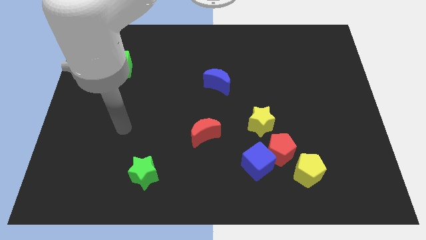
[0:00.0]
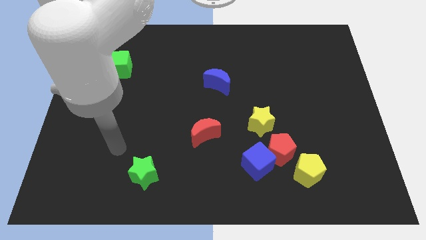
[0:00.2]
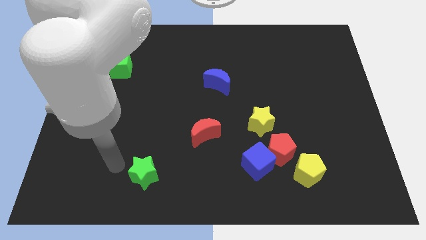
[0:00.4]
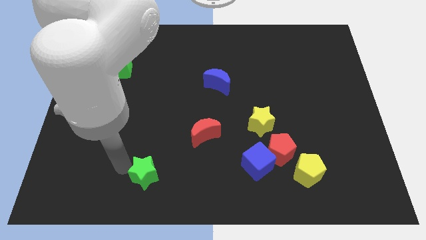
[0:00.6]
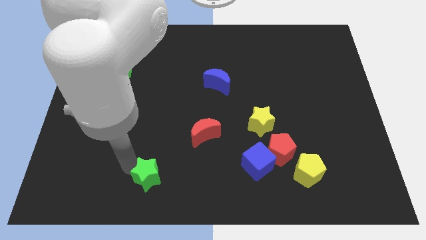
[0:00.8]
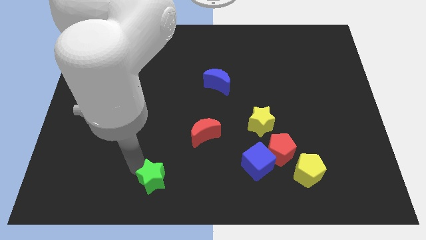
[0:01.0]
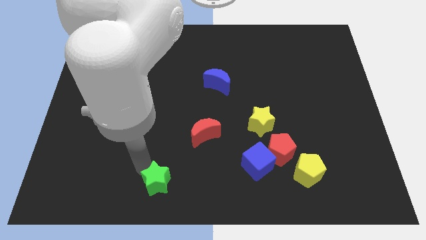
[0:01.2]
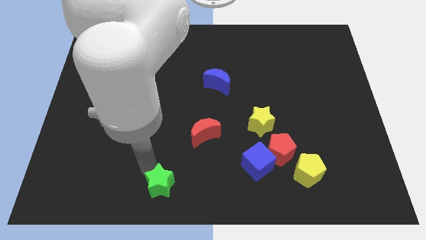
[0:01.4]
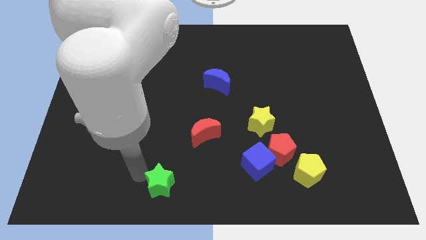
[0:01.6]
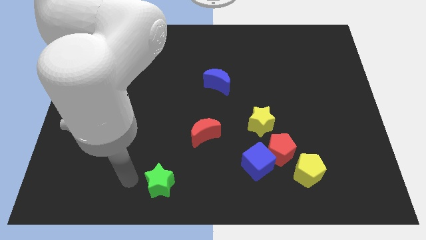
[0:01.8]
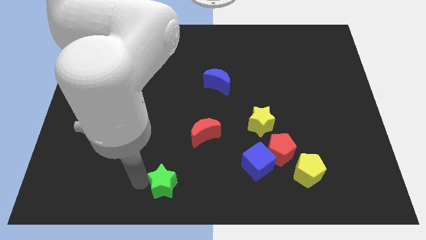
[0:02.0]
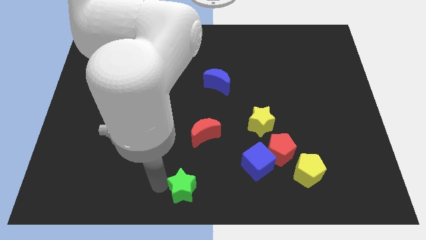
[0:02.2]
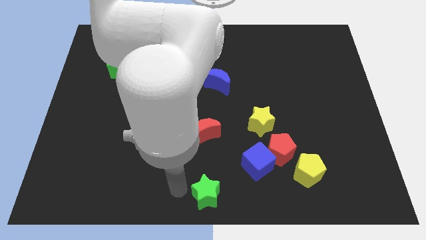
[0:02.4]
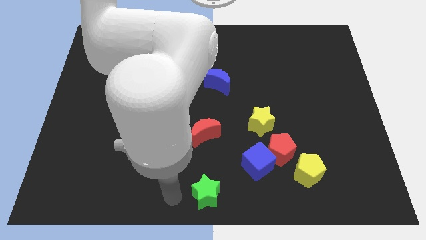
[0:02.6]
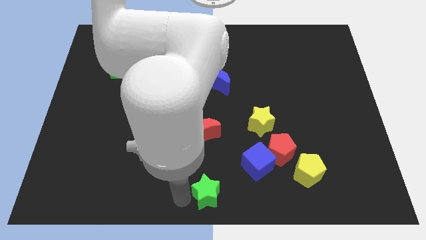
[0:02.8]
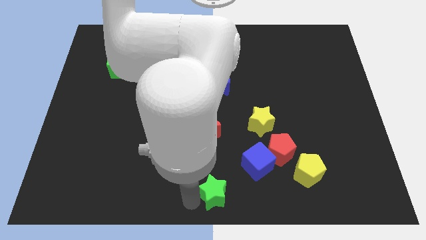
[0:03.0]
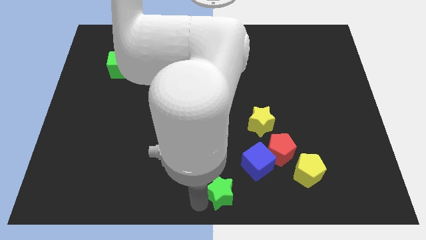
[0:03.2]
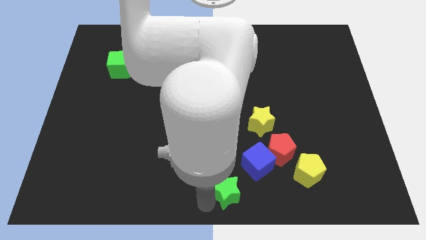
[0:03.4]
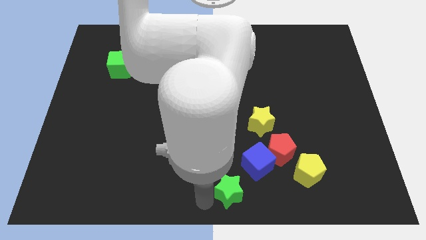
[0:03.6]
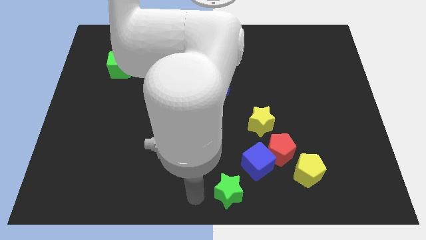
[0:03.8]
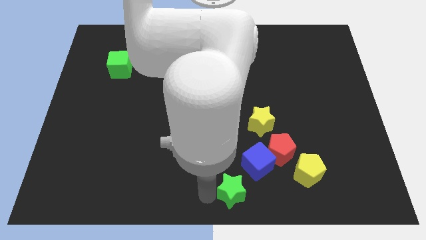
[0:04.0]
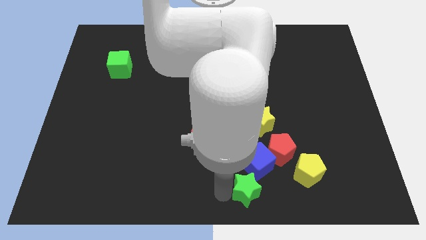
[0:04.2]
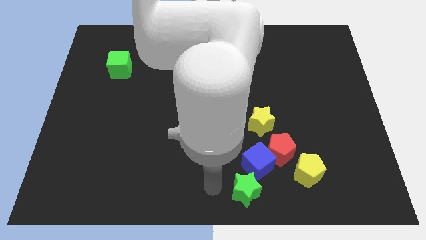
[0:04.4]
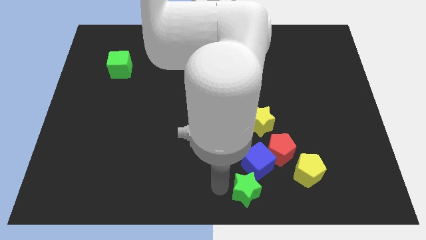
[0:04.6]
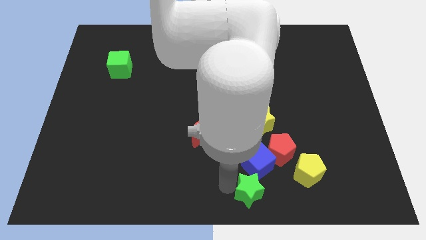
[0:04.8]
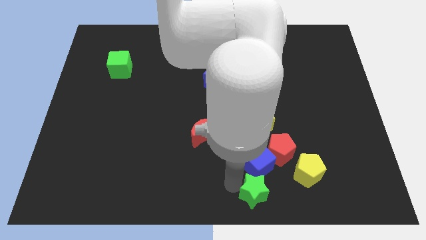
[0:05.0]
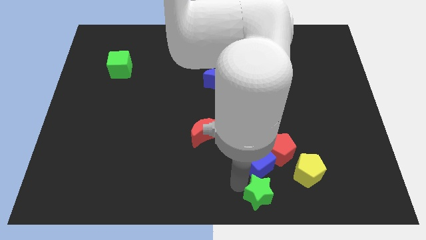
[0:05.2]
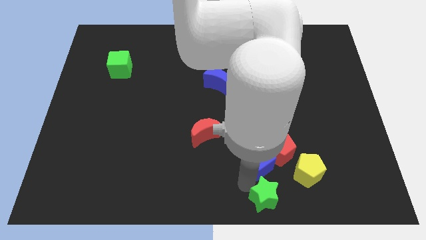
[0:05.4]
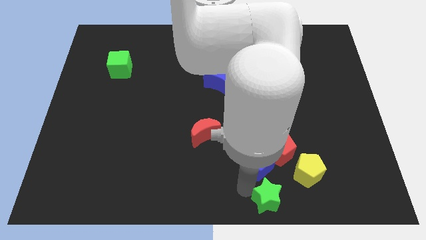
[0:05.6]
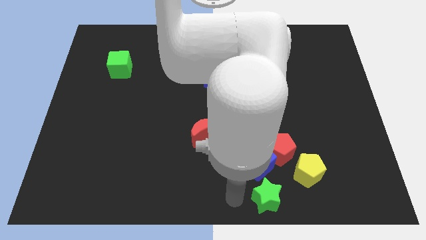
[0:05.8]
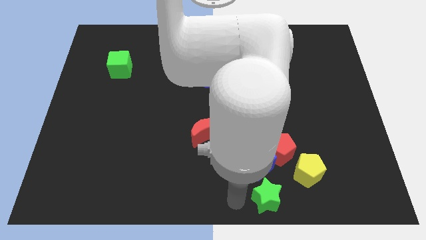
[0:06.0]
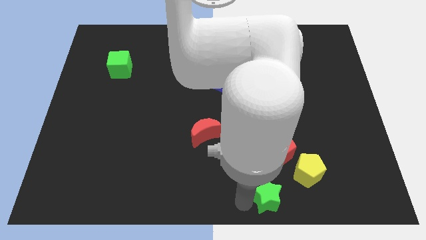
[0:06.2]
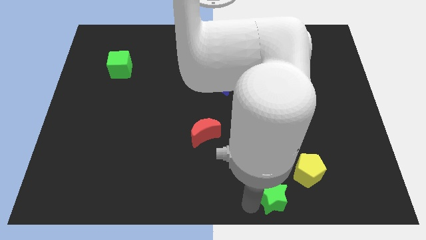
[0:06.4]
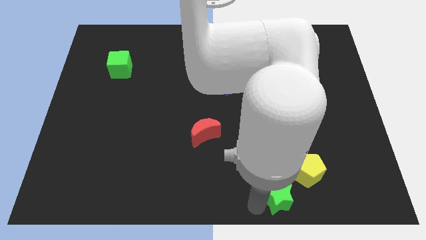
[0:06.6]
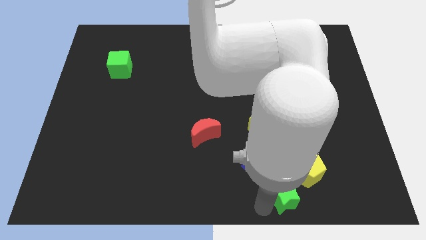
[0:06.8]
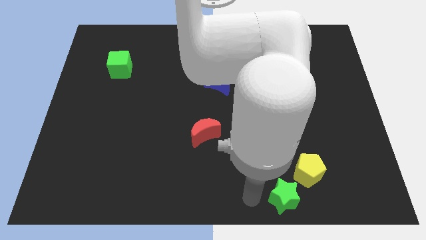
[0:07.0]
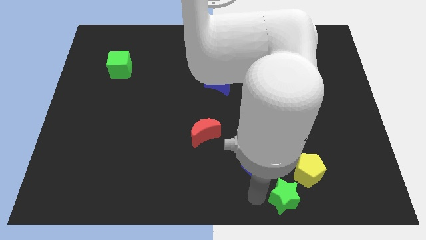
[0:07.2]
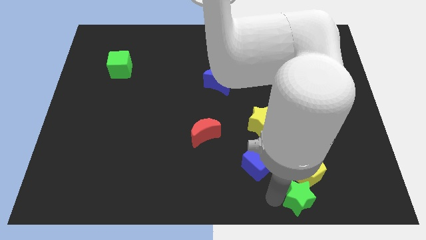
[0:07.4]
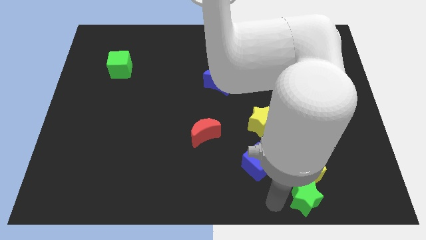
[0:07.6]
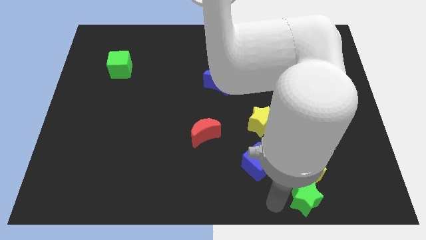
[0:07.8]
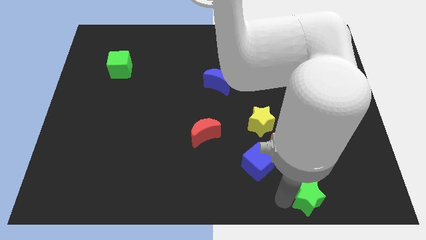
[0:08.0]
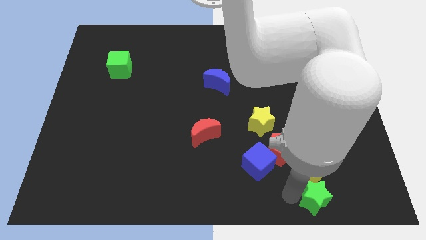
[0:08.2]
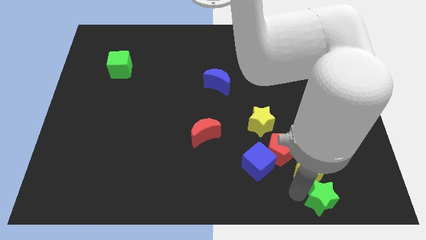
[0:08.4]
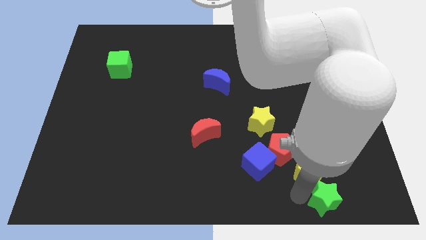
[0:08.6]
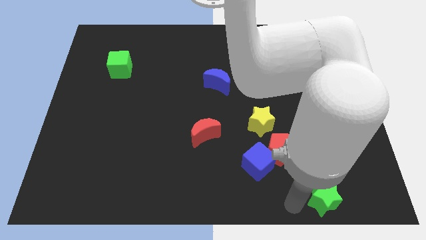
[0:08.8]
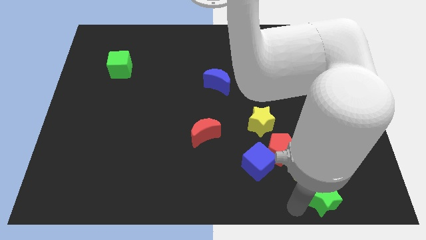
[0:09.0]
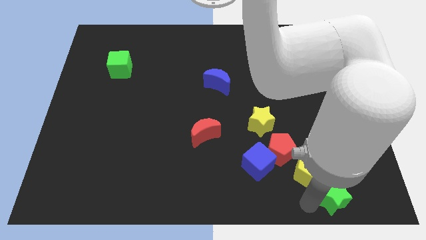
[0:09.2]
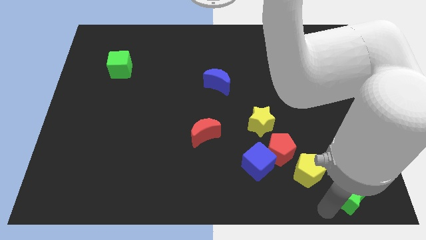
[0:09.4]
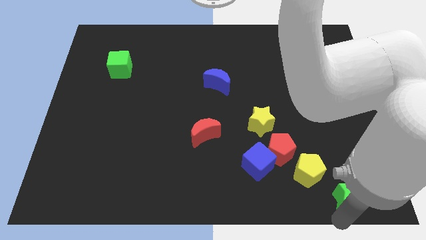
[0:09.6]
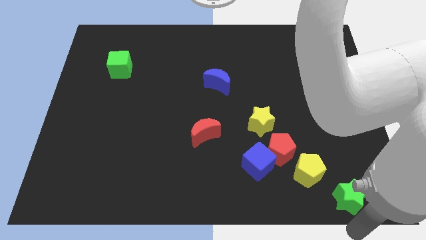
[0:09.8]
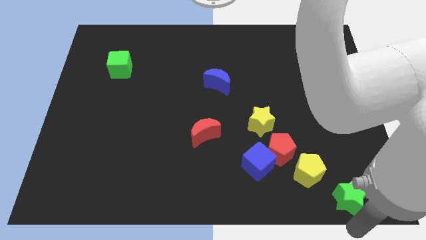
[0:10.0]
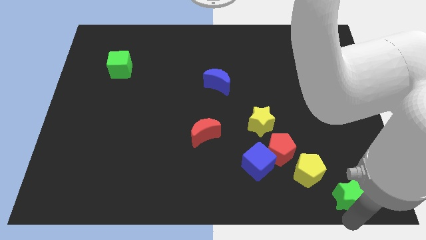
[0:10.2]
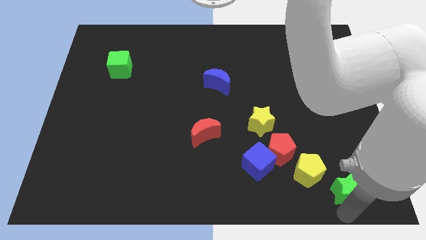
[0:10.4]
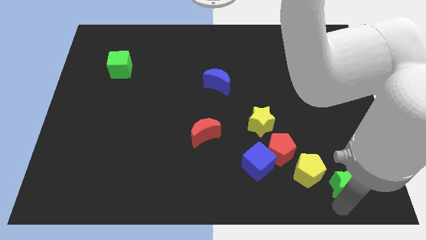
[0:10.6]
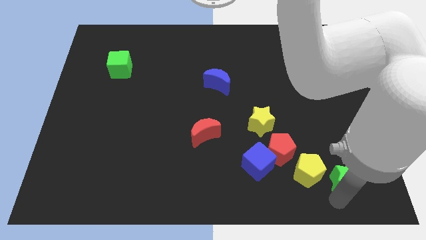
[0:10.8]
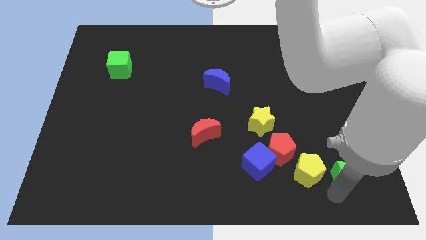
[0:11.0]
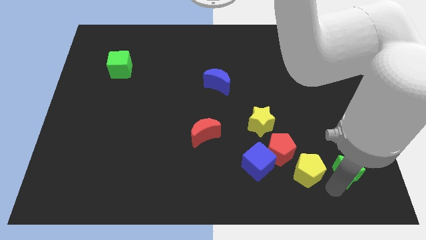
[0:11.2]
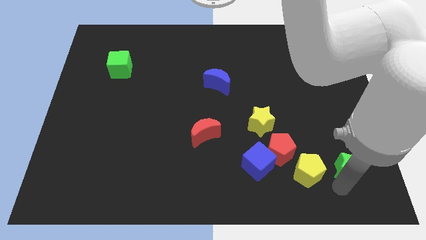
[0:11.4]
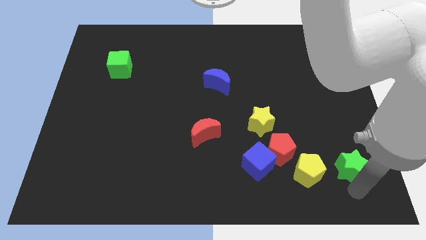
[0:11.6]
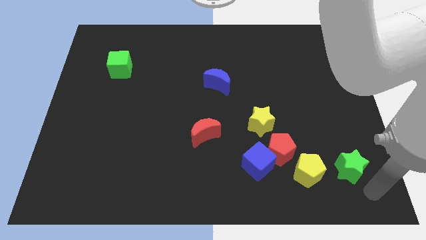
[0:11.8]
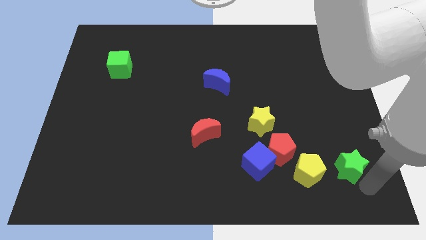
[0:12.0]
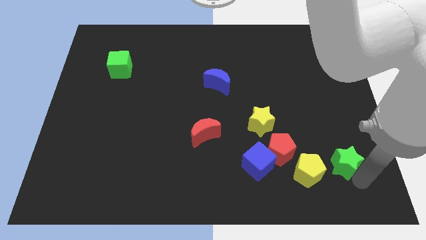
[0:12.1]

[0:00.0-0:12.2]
move the green star to the top right of the yellow pentagon

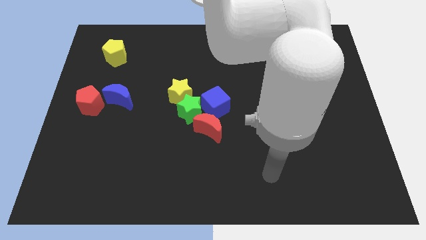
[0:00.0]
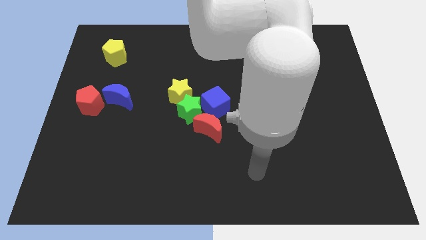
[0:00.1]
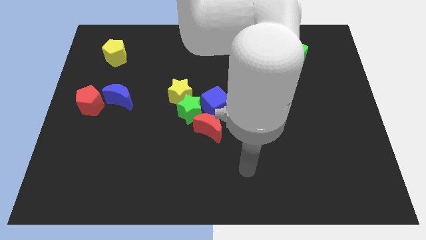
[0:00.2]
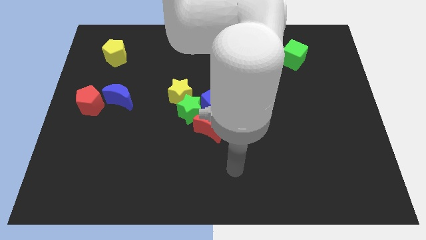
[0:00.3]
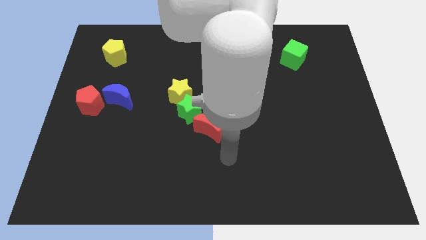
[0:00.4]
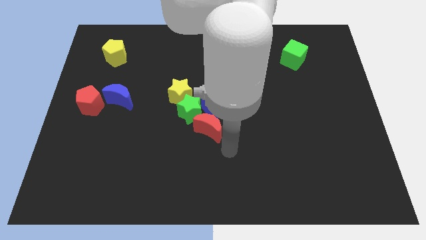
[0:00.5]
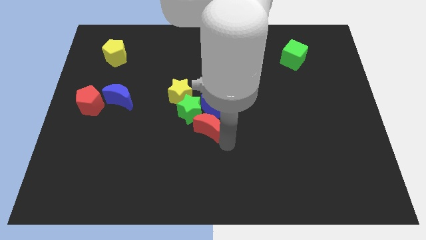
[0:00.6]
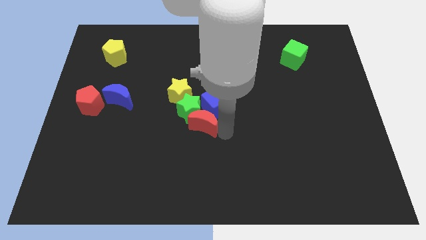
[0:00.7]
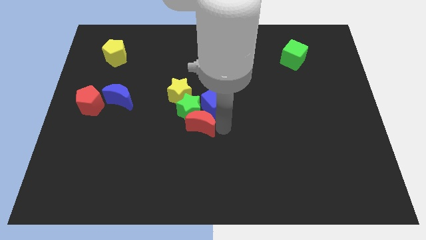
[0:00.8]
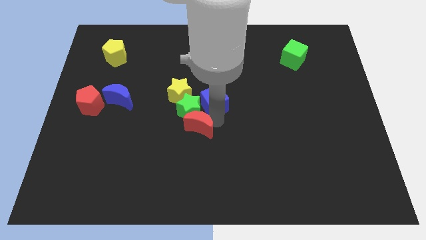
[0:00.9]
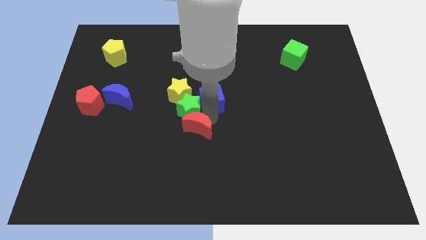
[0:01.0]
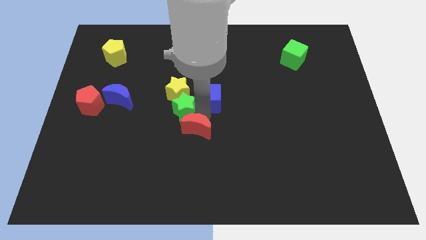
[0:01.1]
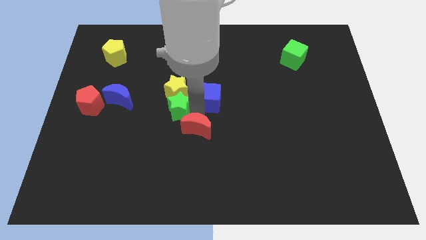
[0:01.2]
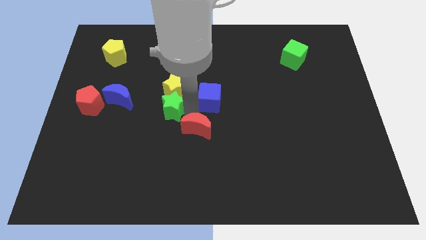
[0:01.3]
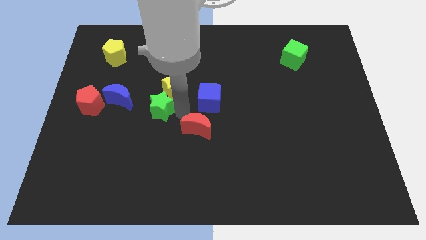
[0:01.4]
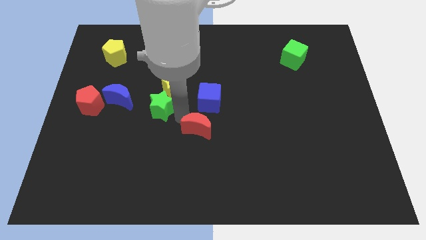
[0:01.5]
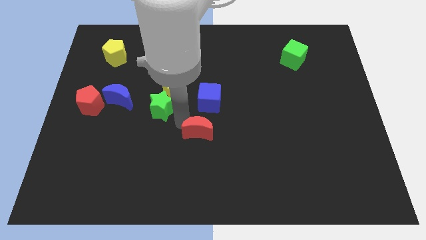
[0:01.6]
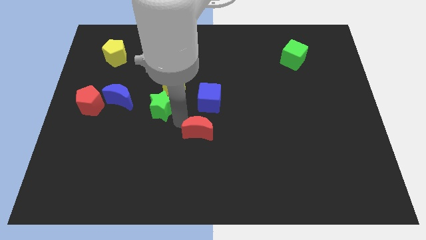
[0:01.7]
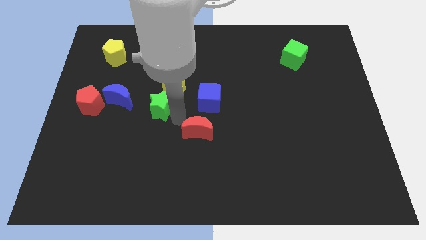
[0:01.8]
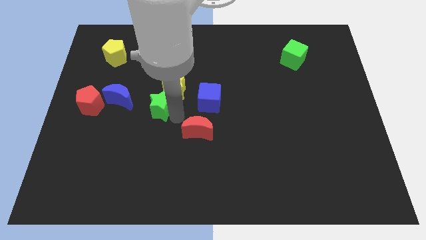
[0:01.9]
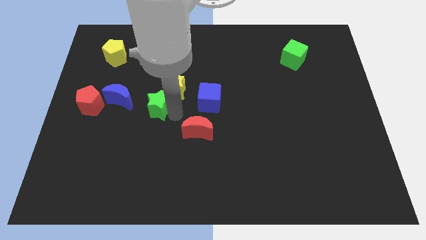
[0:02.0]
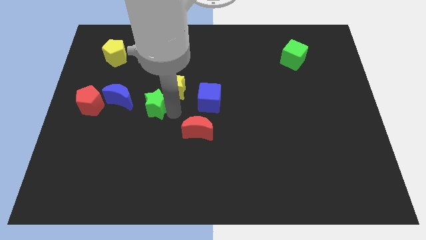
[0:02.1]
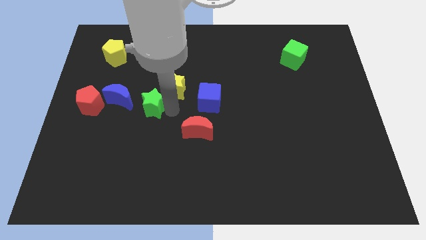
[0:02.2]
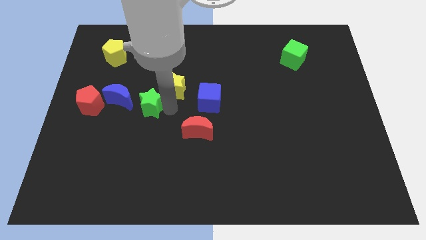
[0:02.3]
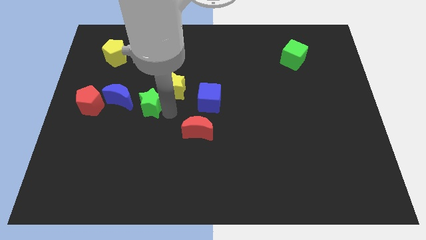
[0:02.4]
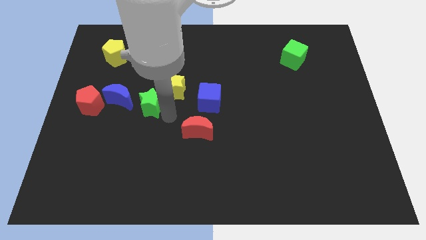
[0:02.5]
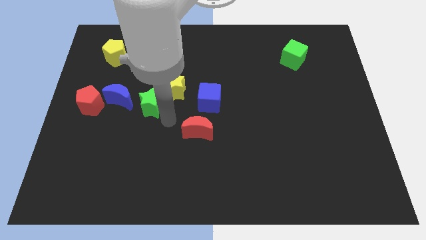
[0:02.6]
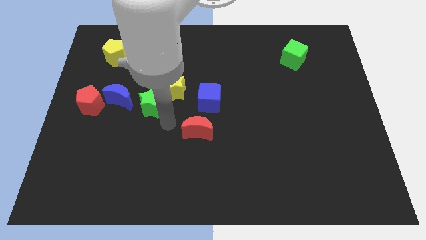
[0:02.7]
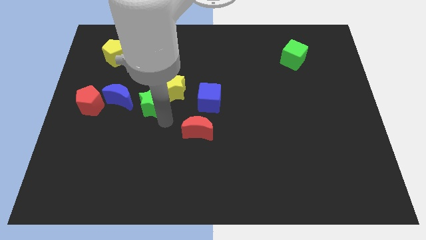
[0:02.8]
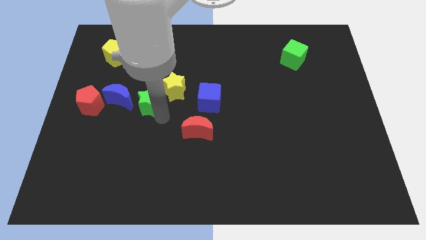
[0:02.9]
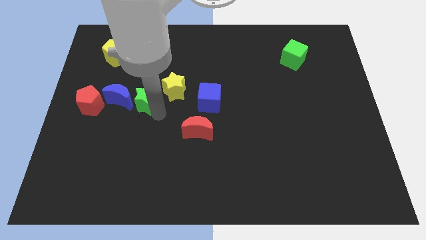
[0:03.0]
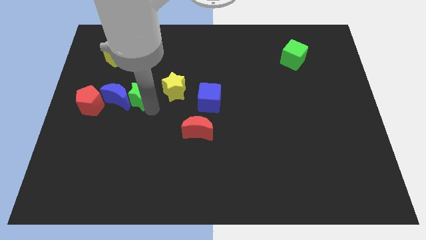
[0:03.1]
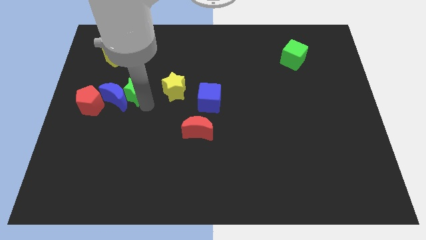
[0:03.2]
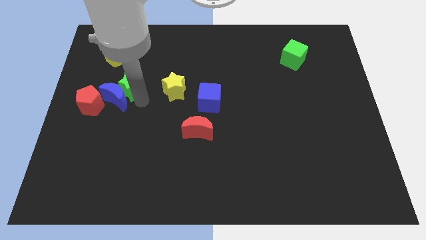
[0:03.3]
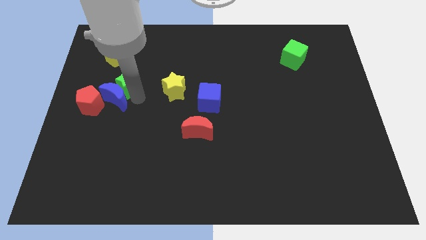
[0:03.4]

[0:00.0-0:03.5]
push the green star to the bottom of the yellow pentagon
